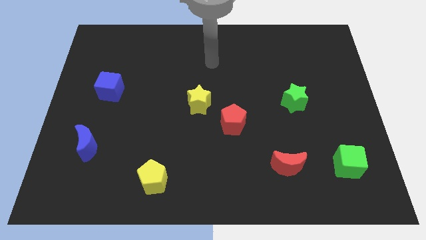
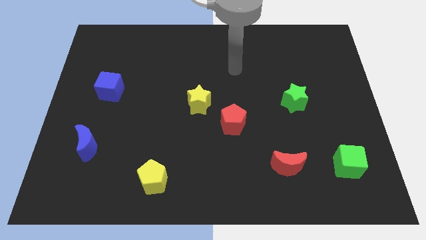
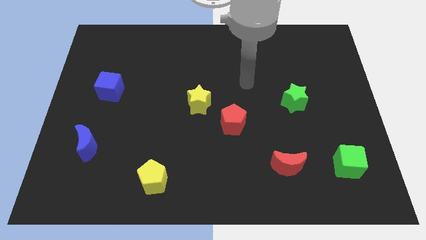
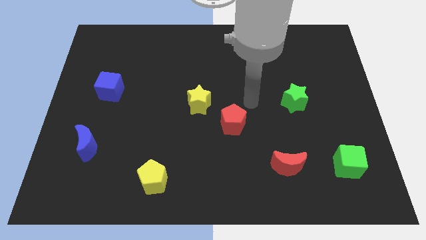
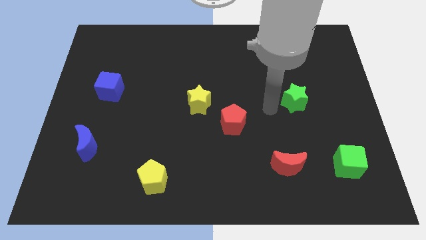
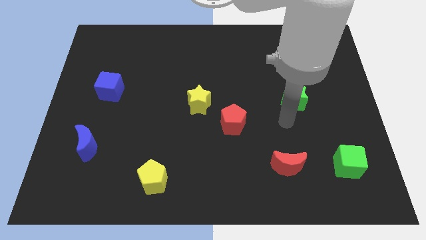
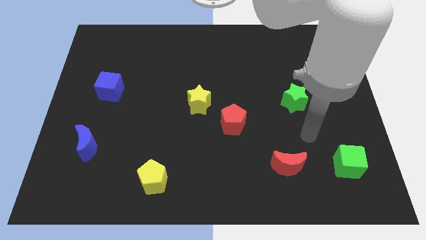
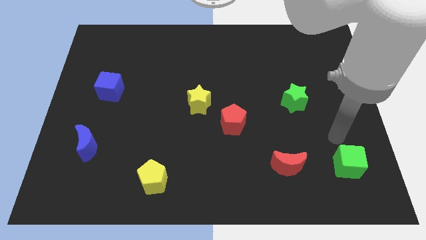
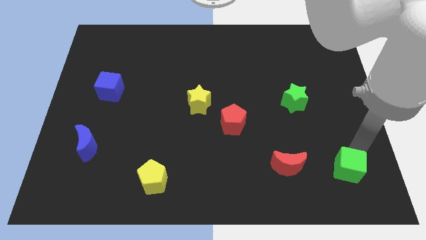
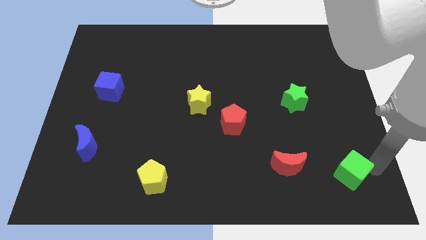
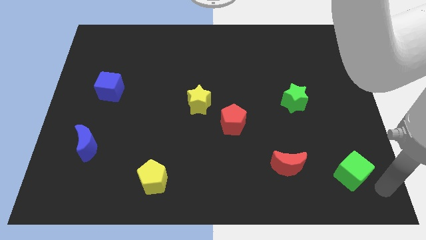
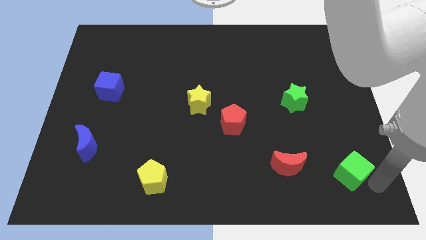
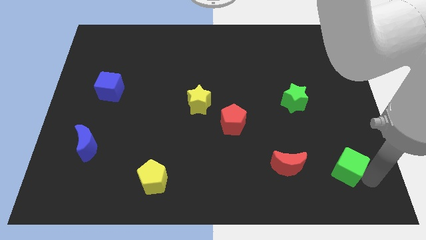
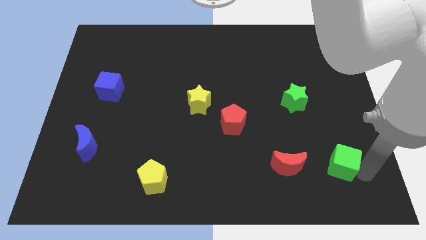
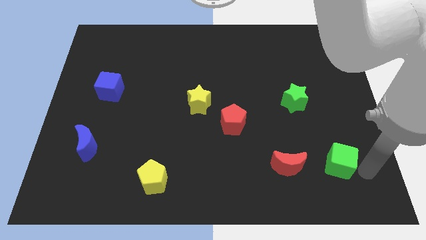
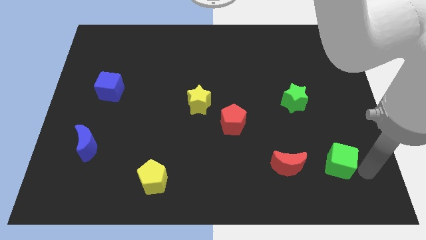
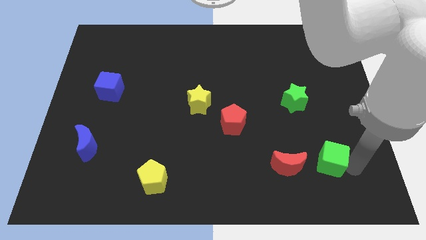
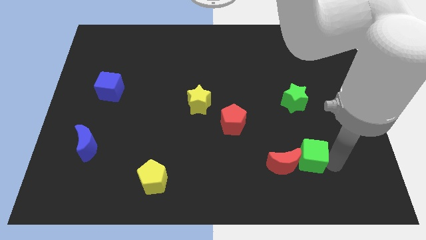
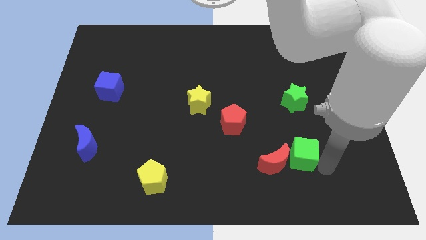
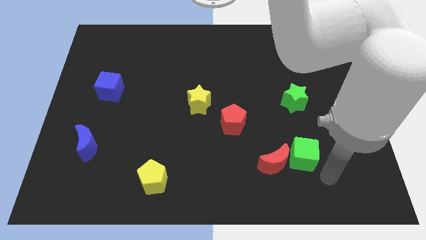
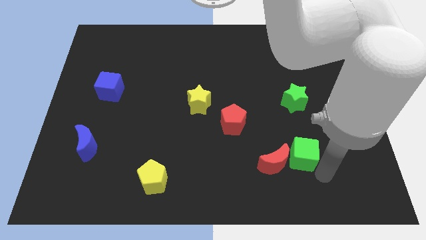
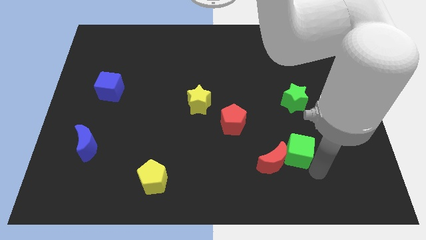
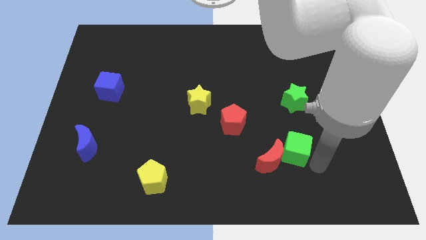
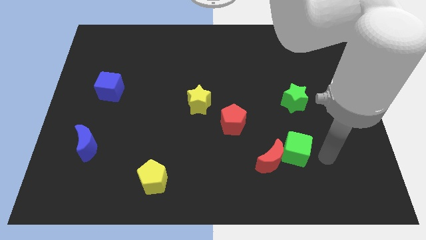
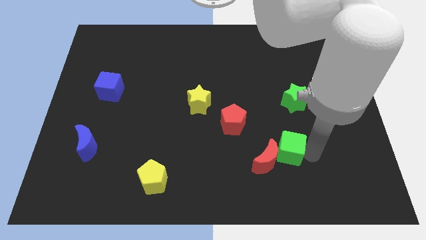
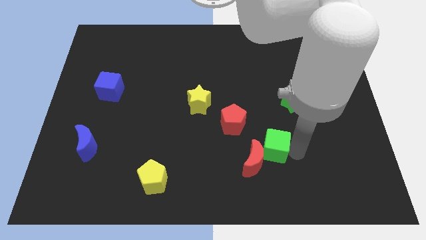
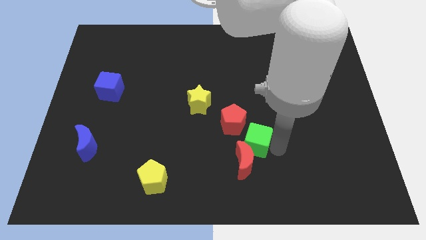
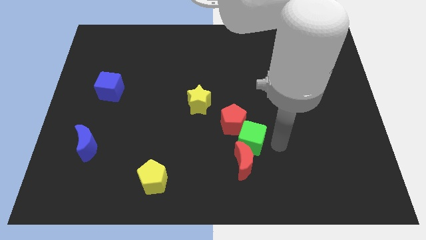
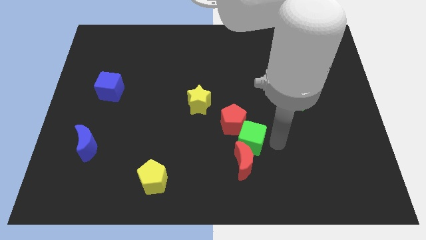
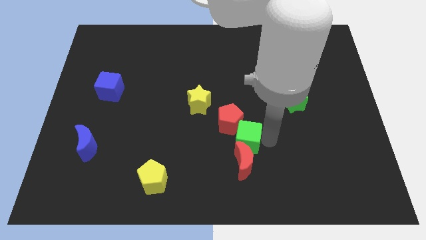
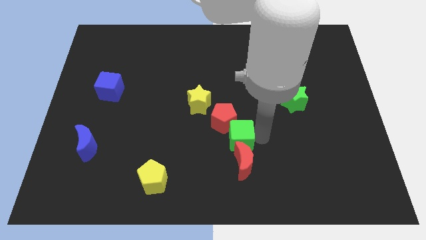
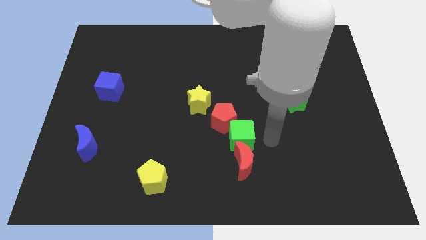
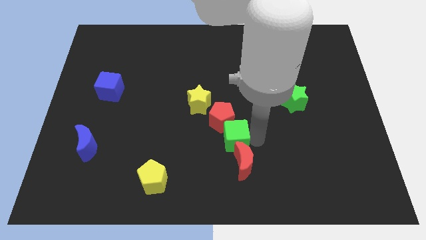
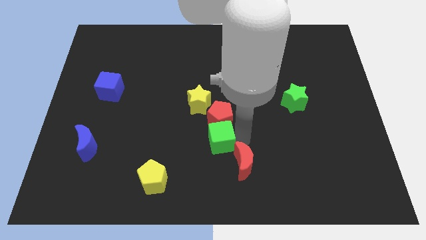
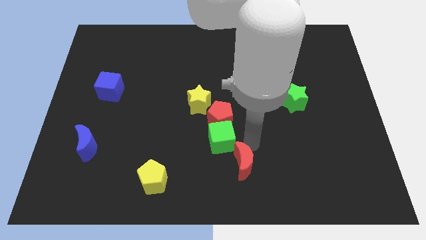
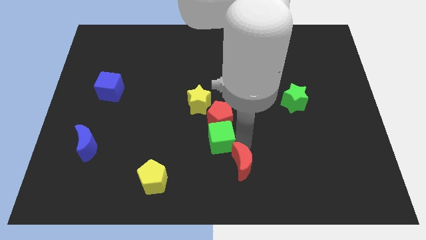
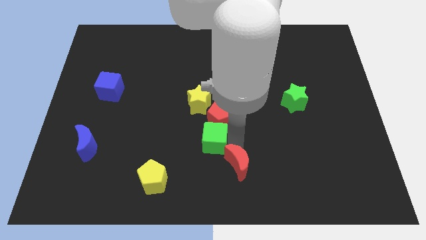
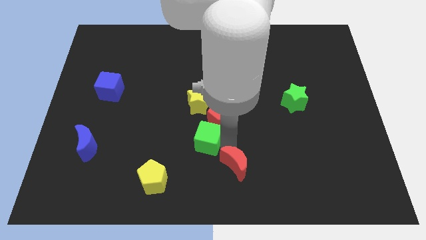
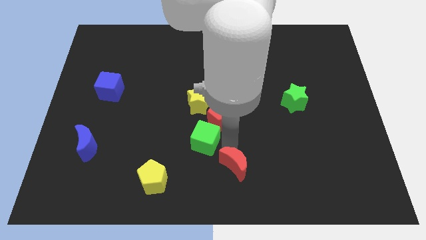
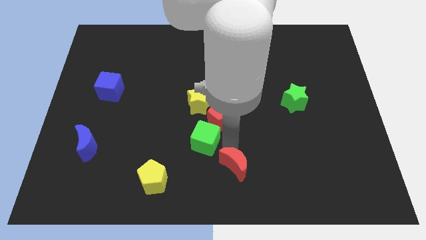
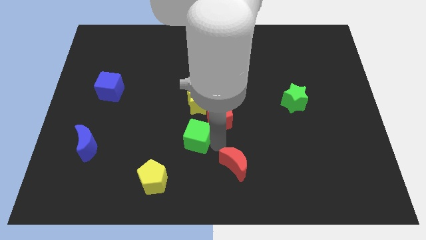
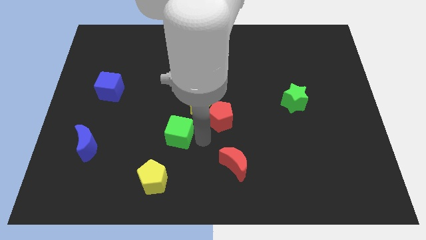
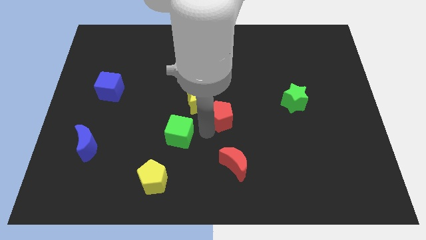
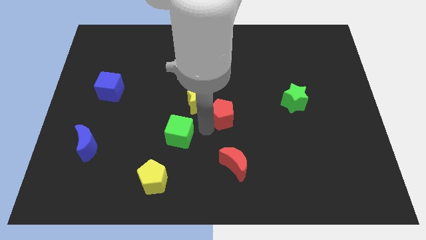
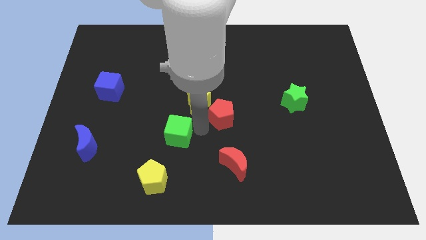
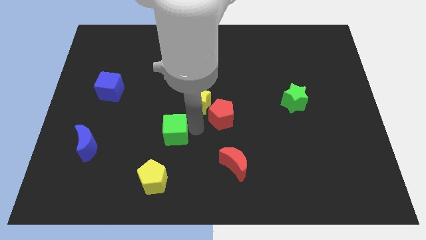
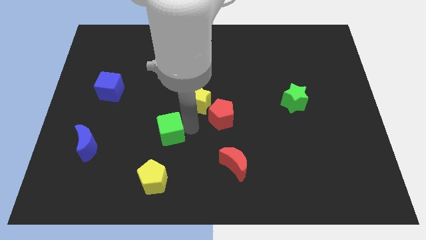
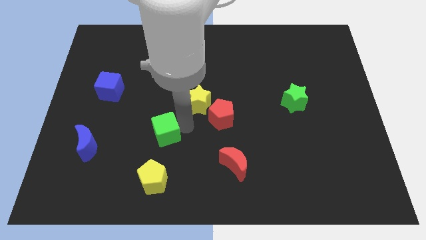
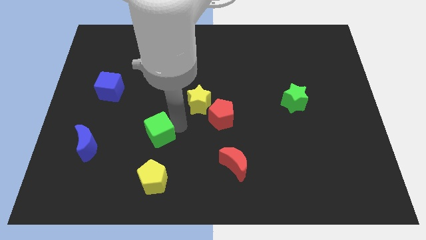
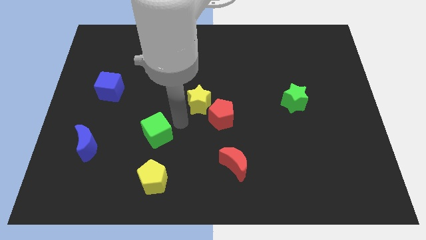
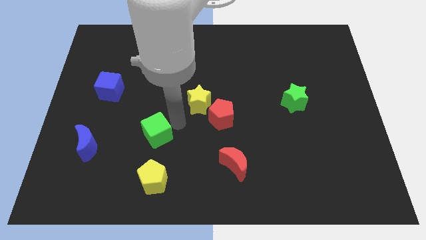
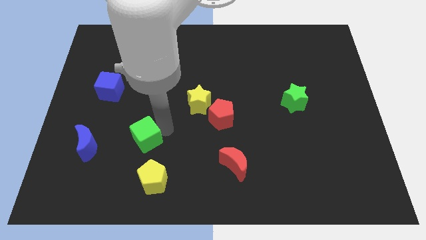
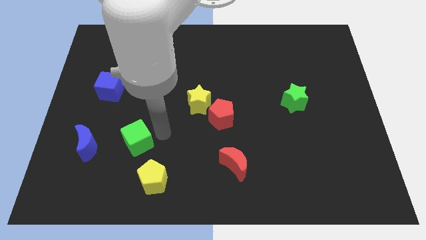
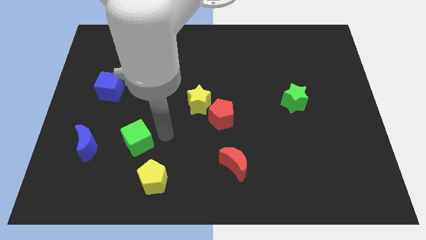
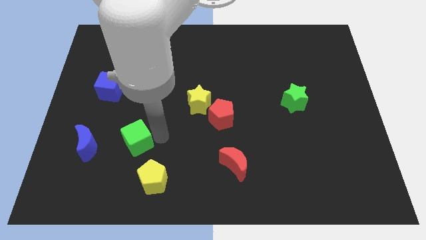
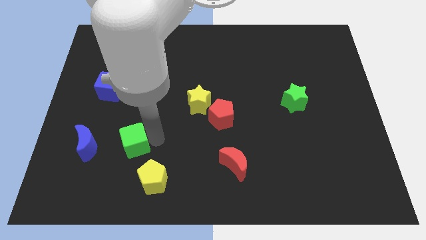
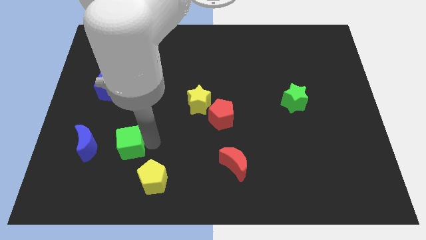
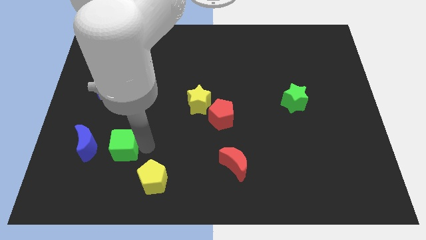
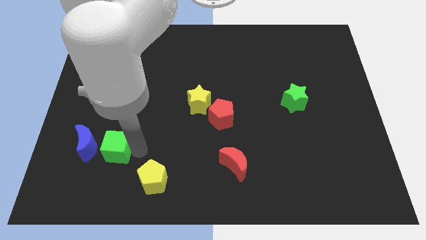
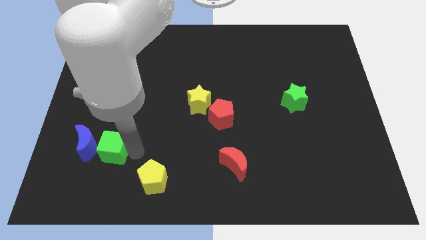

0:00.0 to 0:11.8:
slide the green cube towards the blue moon

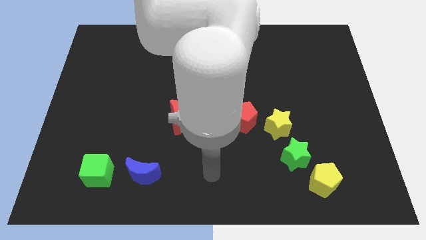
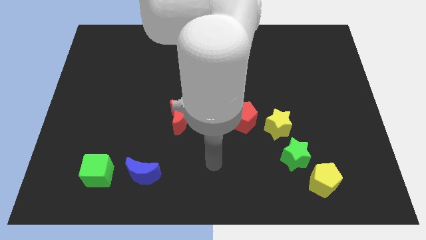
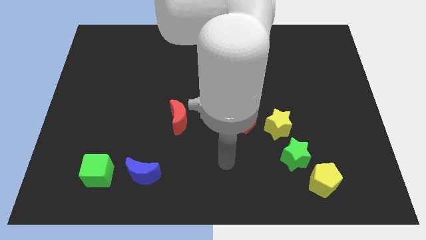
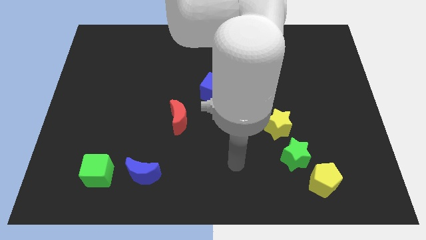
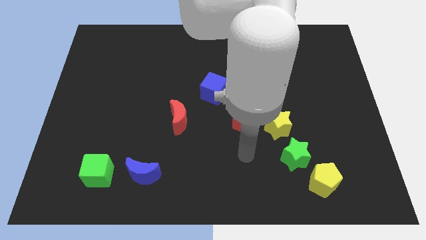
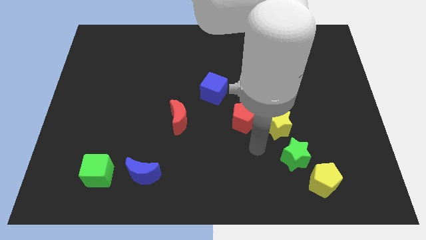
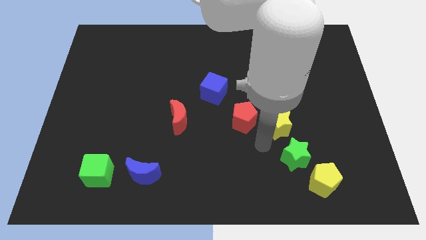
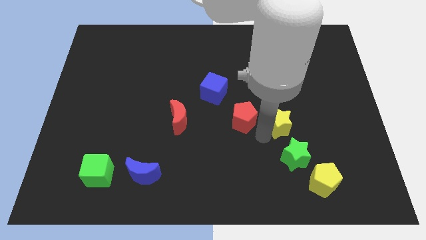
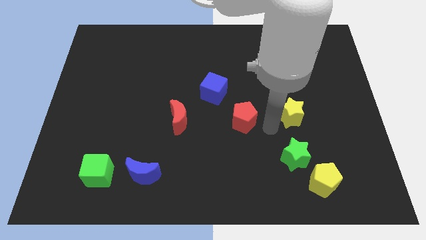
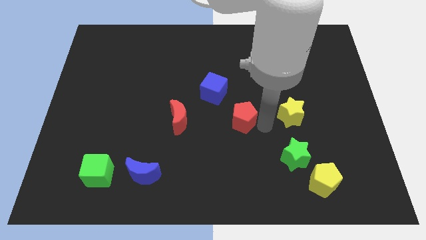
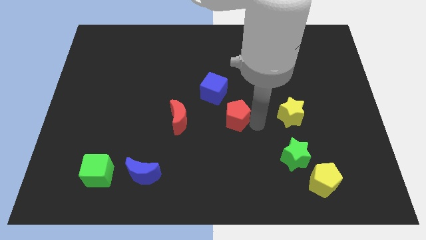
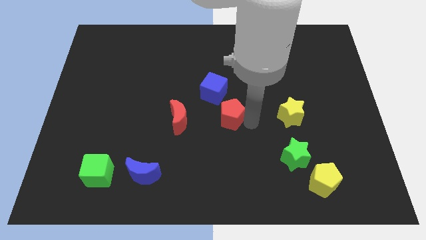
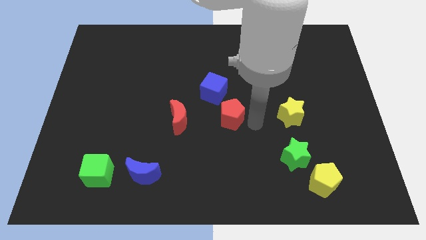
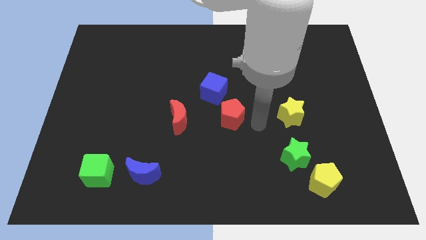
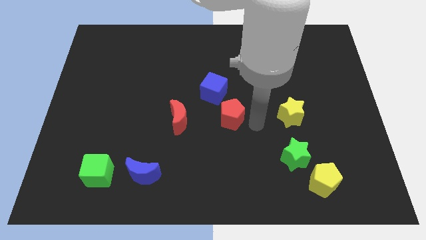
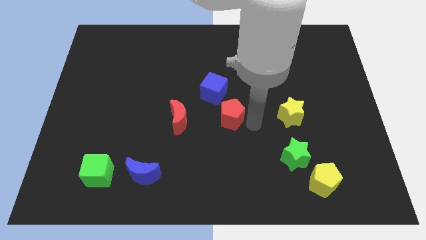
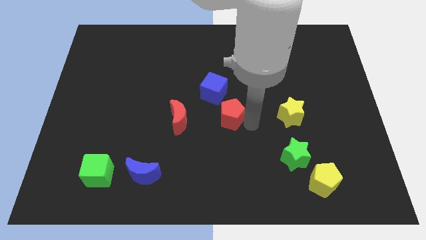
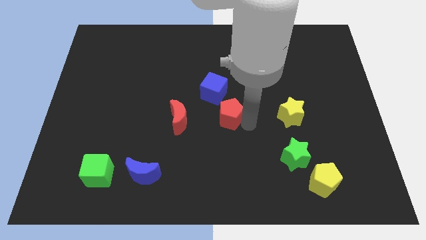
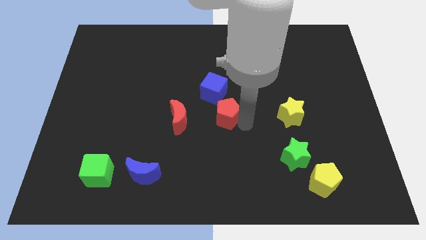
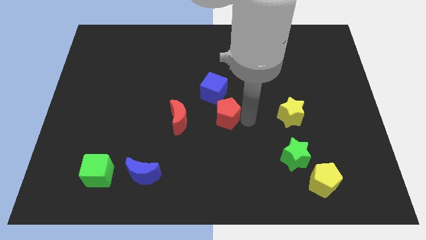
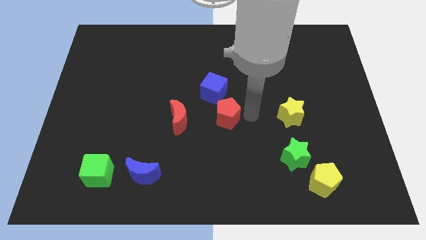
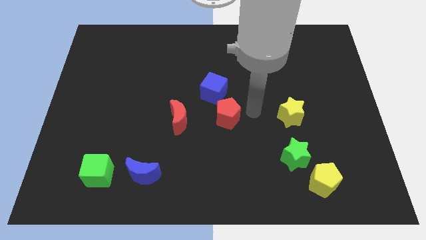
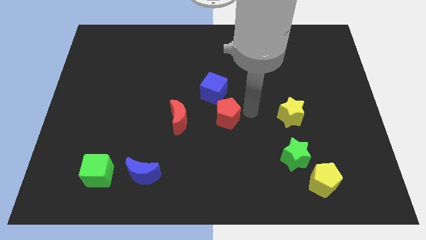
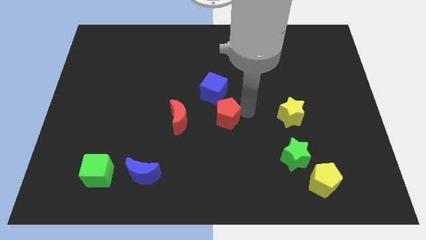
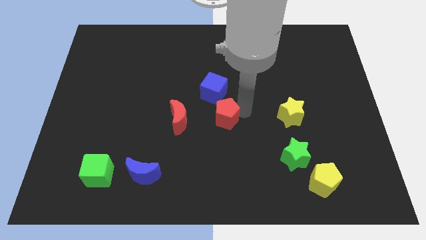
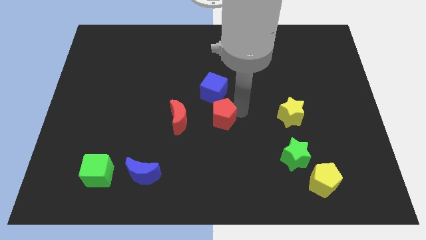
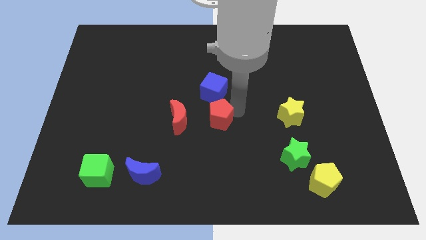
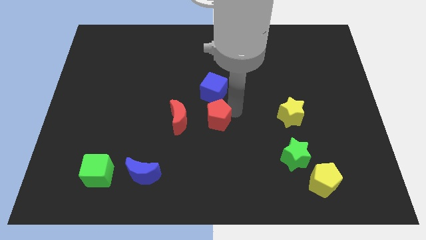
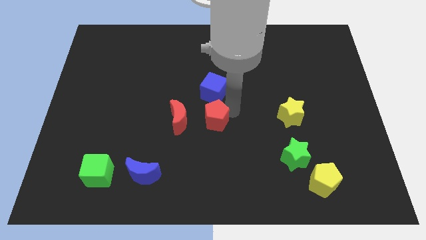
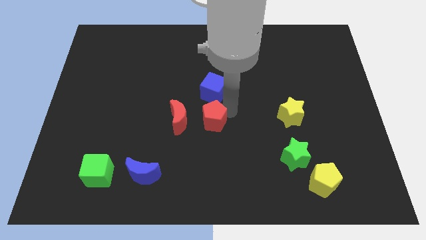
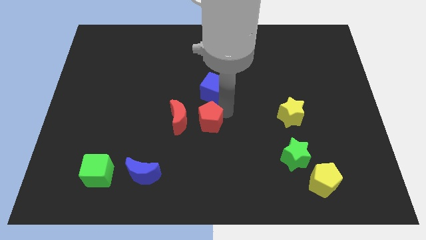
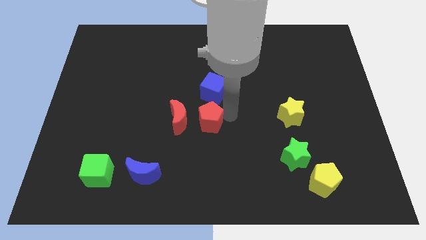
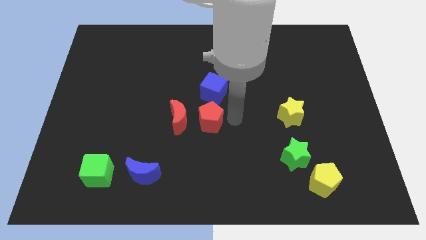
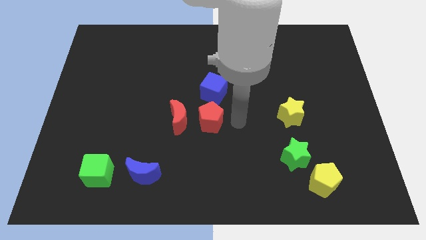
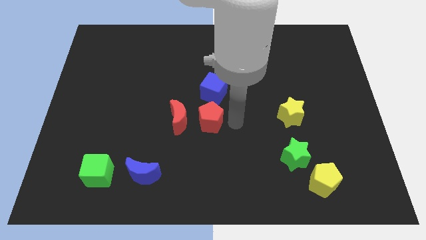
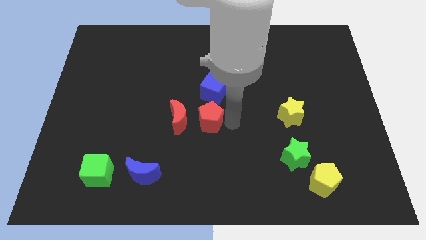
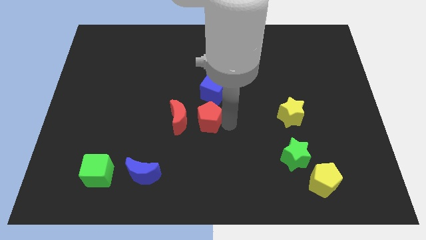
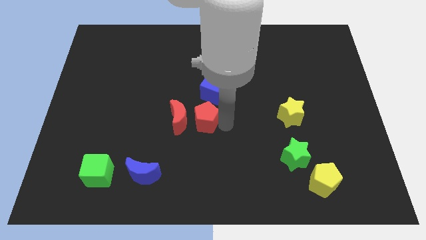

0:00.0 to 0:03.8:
push the red pentagon next to the red moon
